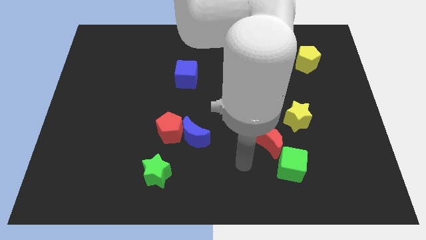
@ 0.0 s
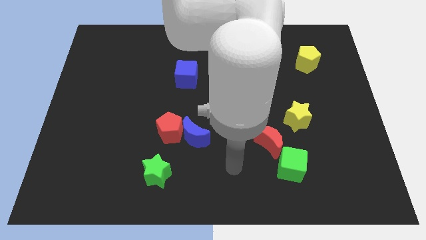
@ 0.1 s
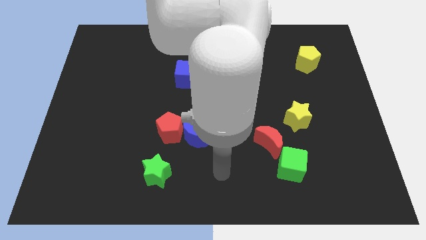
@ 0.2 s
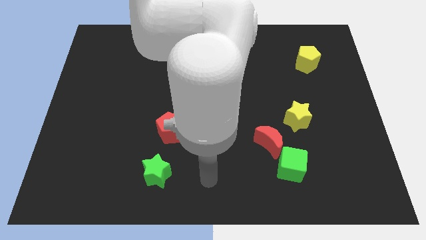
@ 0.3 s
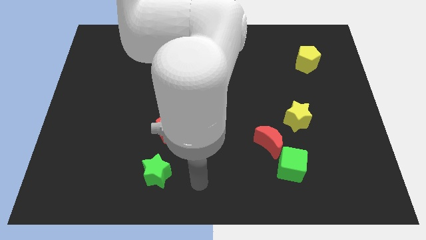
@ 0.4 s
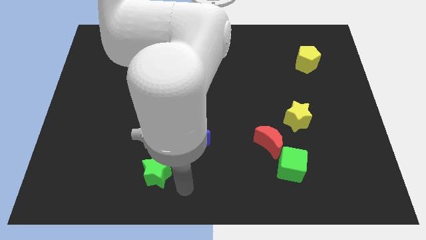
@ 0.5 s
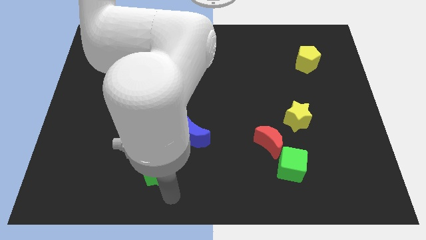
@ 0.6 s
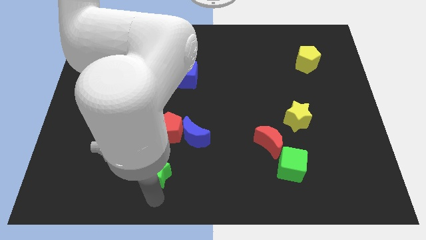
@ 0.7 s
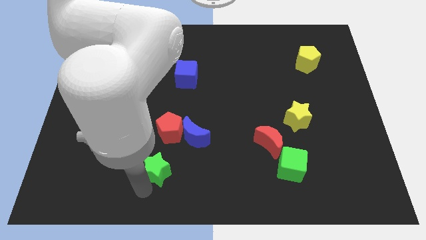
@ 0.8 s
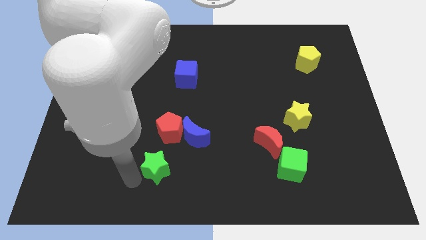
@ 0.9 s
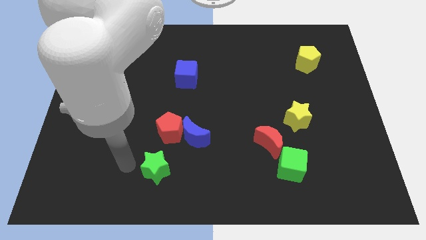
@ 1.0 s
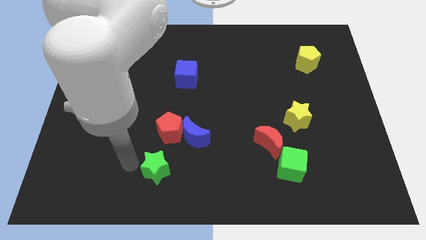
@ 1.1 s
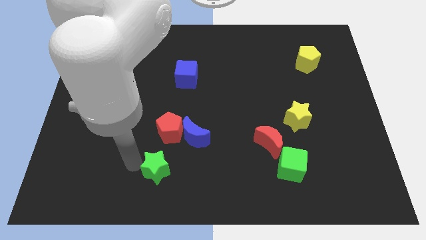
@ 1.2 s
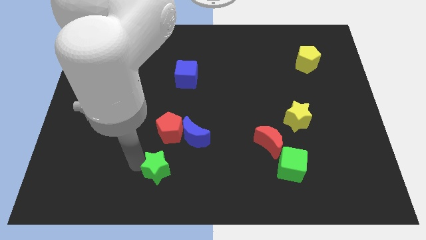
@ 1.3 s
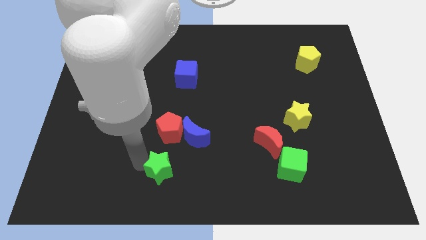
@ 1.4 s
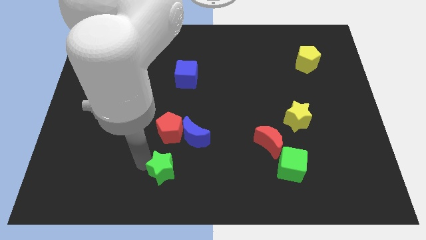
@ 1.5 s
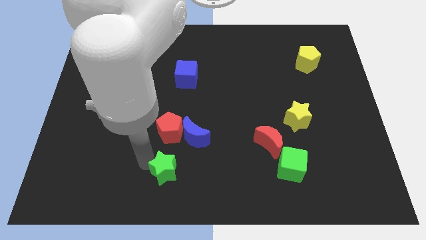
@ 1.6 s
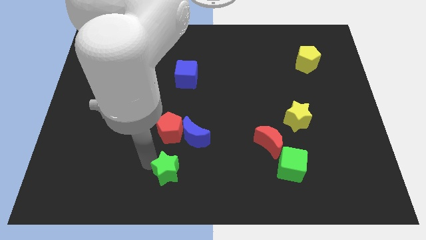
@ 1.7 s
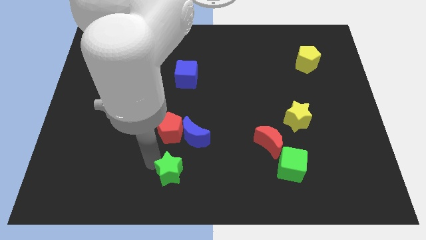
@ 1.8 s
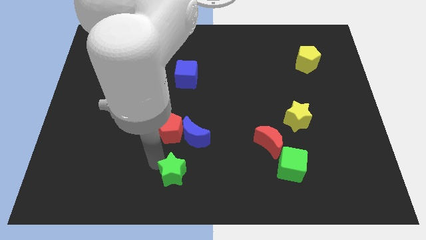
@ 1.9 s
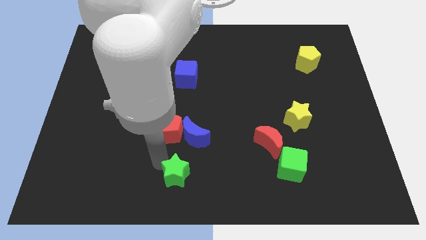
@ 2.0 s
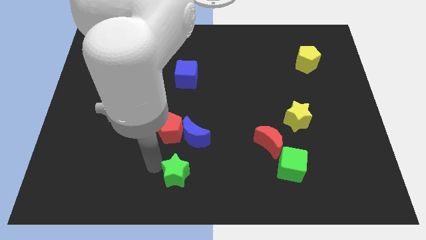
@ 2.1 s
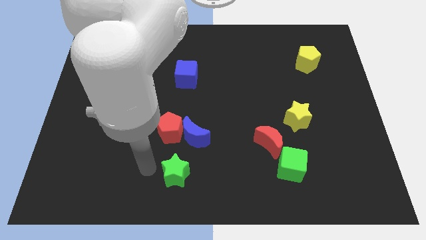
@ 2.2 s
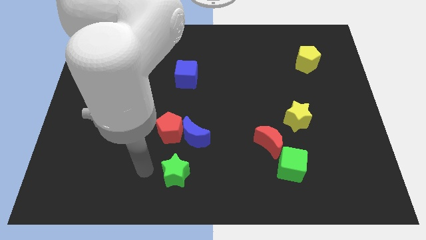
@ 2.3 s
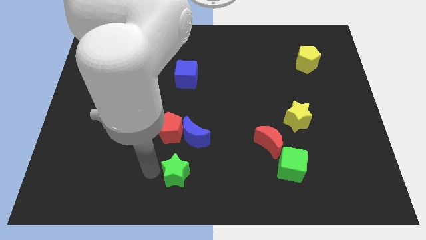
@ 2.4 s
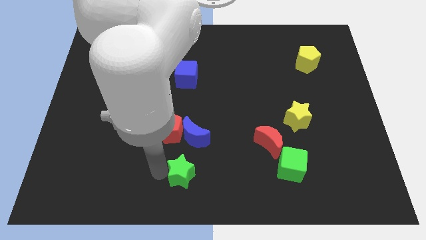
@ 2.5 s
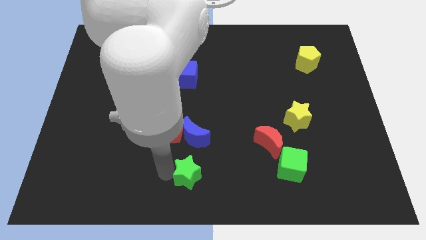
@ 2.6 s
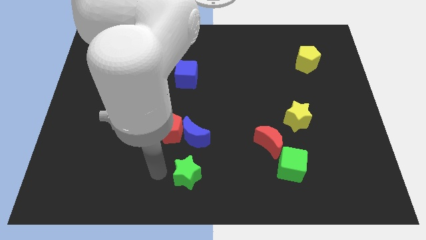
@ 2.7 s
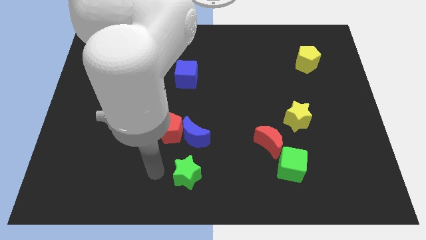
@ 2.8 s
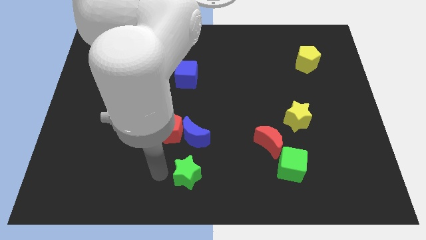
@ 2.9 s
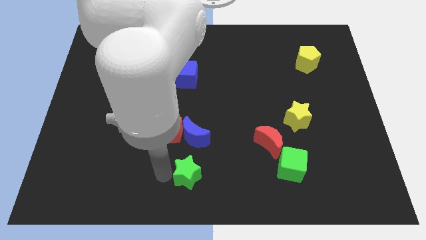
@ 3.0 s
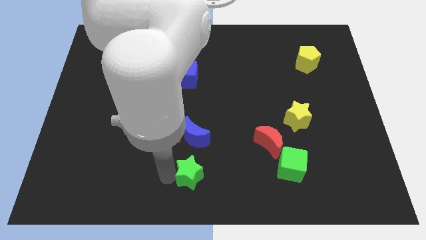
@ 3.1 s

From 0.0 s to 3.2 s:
move the green star a little bit right

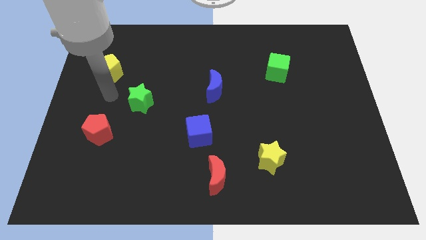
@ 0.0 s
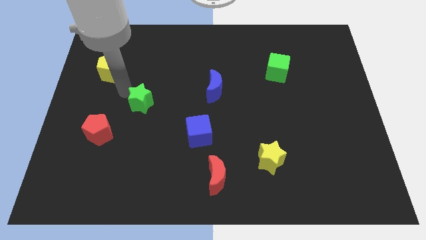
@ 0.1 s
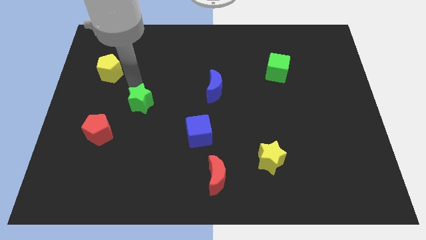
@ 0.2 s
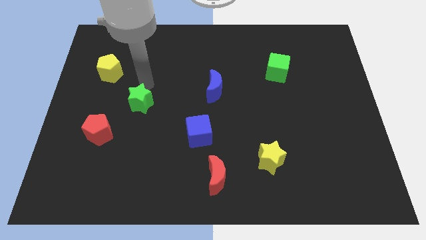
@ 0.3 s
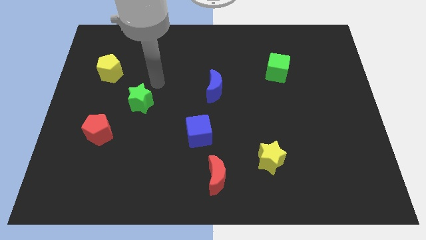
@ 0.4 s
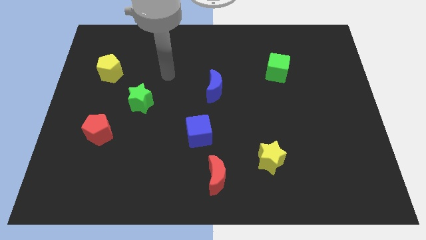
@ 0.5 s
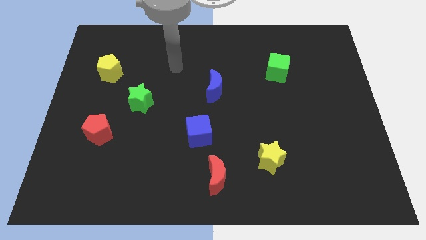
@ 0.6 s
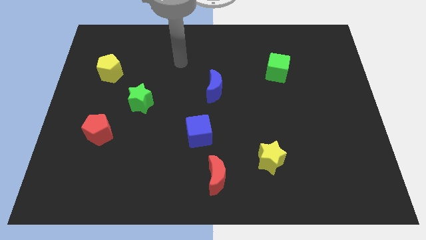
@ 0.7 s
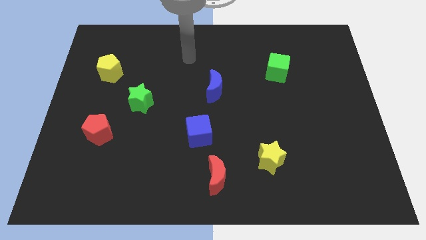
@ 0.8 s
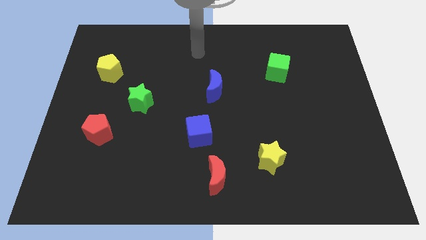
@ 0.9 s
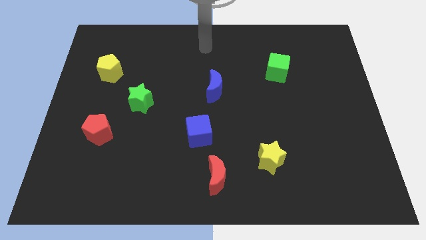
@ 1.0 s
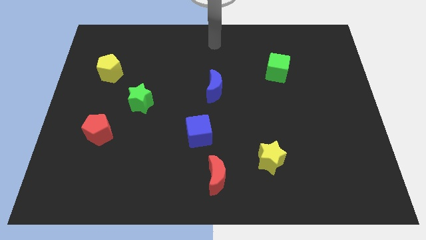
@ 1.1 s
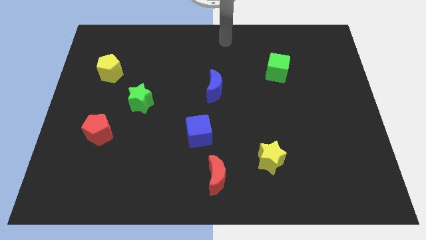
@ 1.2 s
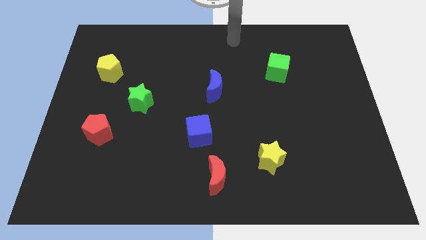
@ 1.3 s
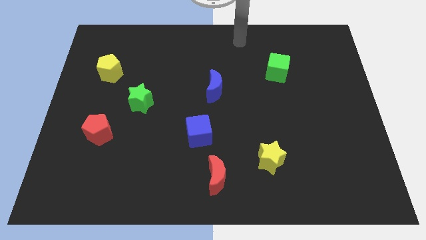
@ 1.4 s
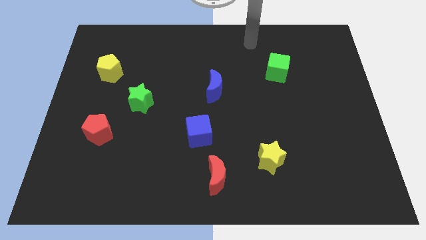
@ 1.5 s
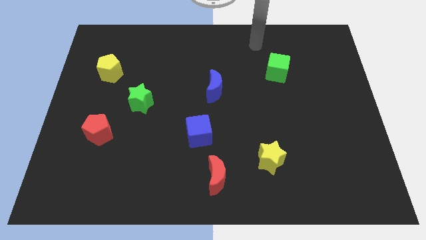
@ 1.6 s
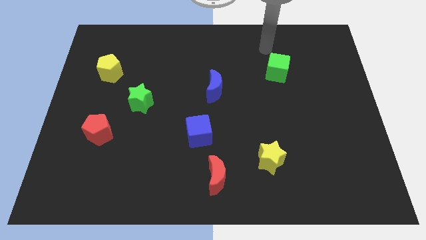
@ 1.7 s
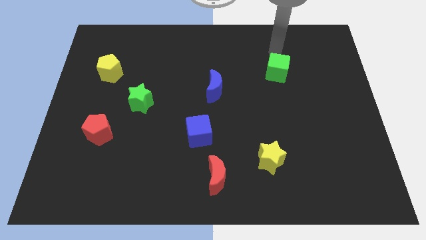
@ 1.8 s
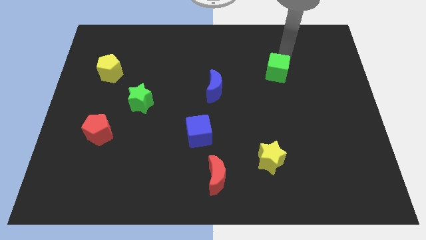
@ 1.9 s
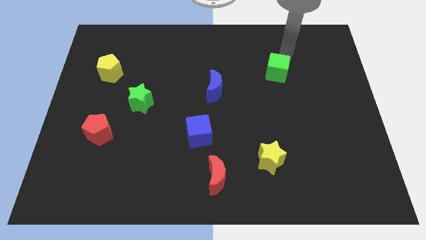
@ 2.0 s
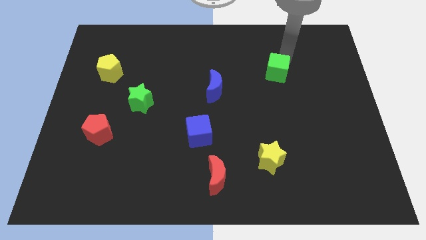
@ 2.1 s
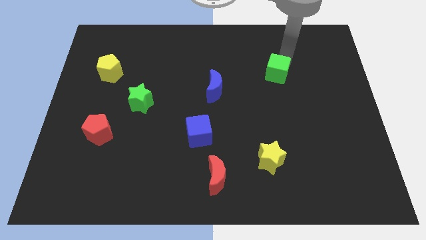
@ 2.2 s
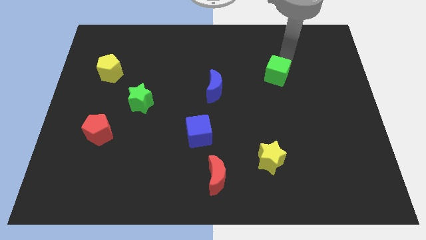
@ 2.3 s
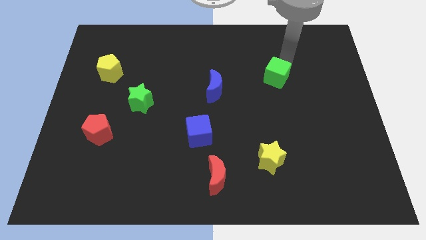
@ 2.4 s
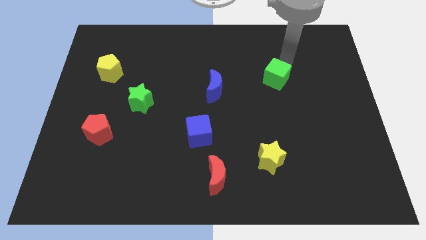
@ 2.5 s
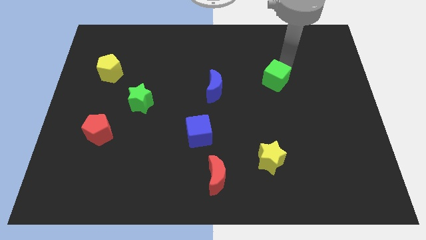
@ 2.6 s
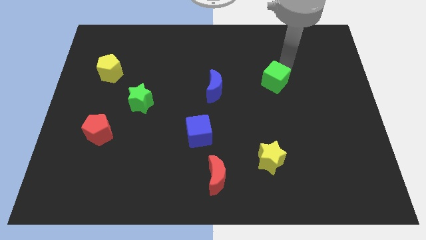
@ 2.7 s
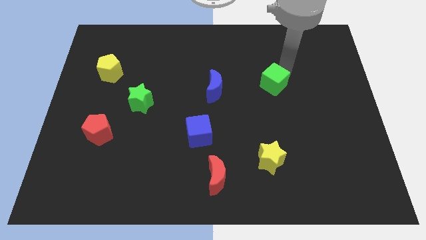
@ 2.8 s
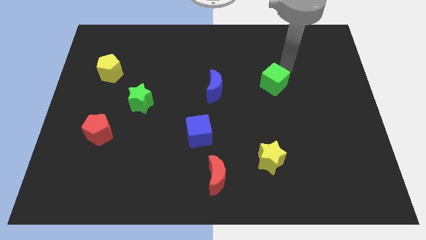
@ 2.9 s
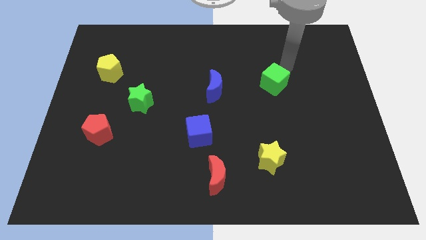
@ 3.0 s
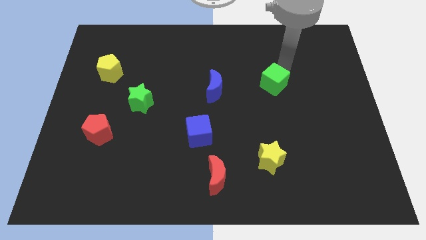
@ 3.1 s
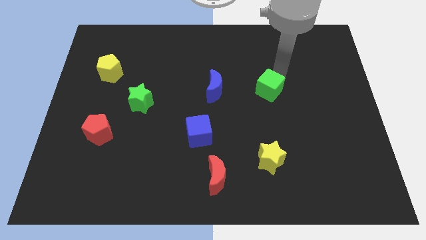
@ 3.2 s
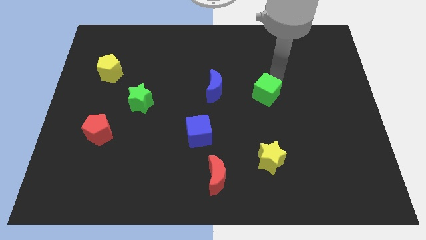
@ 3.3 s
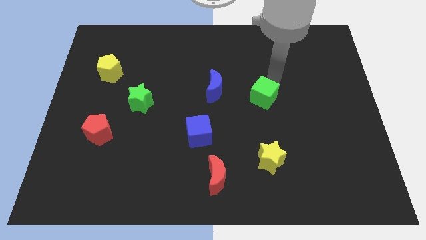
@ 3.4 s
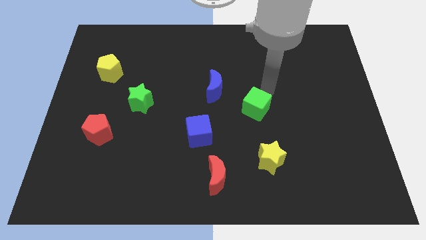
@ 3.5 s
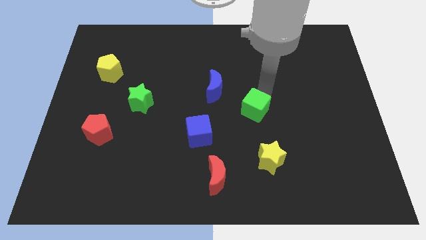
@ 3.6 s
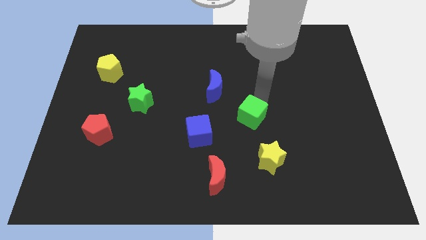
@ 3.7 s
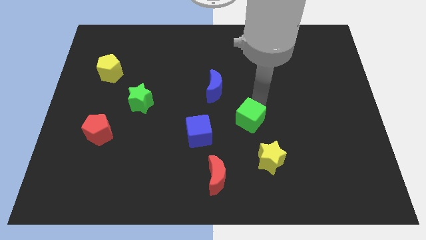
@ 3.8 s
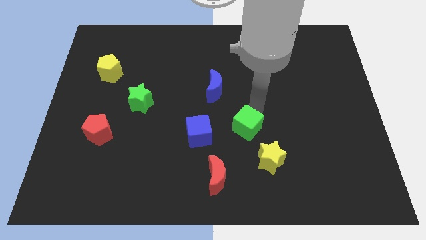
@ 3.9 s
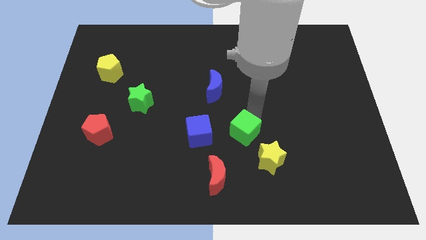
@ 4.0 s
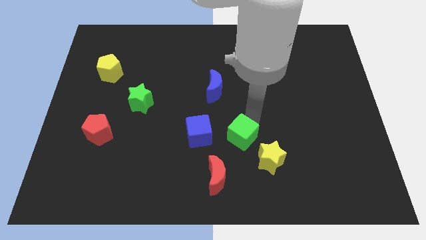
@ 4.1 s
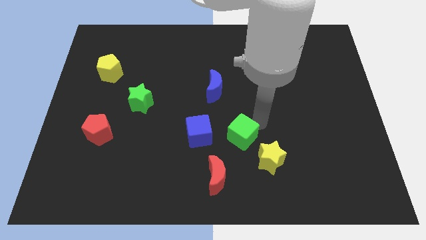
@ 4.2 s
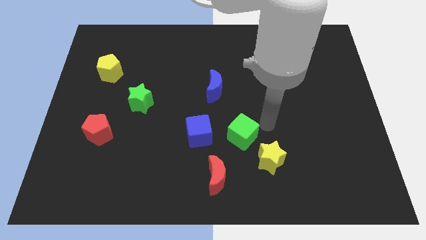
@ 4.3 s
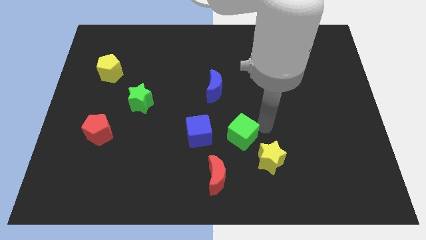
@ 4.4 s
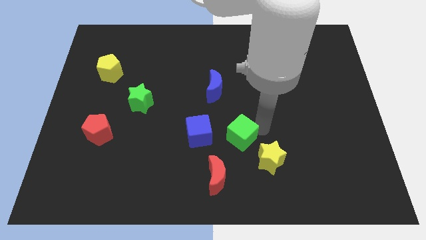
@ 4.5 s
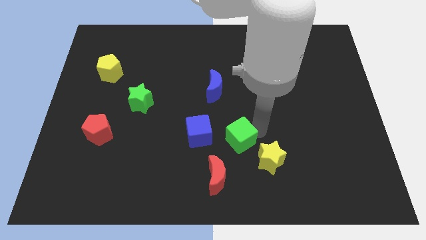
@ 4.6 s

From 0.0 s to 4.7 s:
move the green cube downwards and to the left diagonally

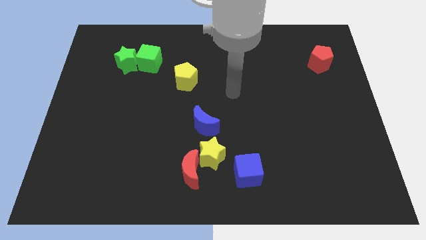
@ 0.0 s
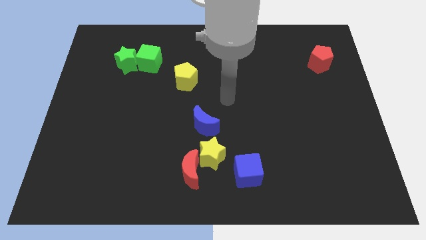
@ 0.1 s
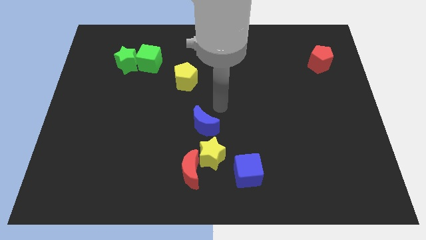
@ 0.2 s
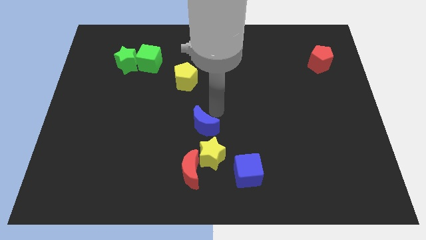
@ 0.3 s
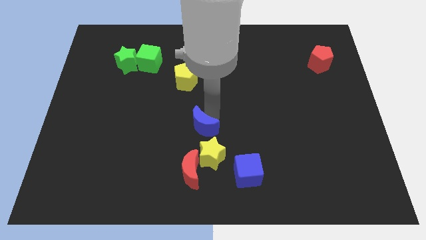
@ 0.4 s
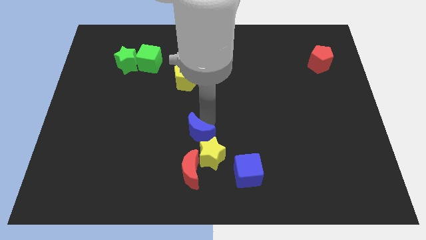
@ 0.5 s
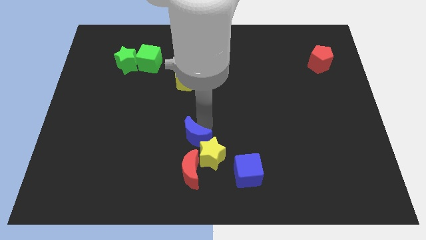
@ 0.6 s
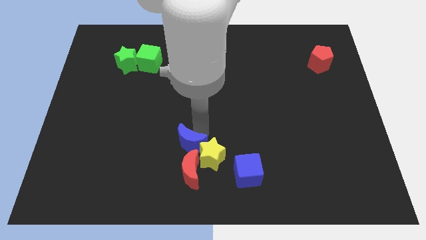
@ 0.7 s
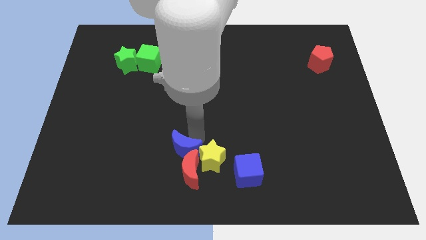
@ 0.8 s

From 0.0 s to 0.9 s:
move the blue moon down and left a little bit
